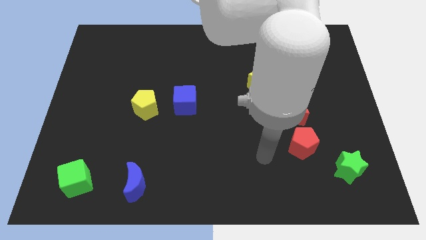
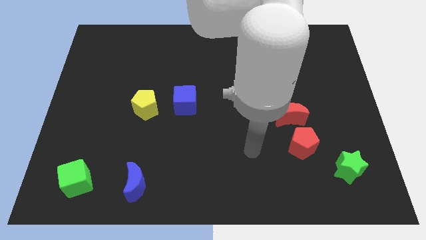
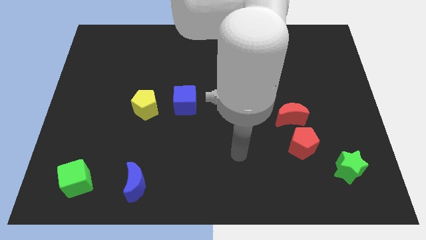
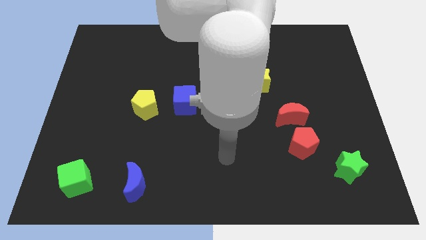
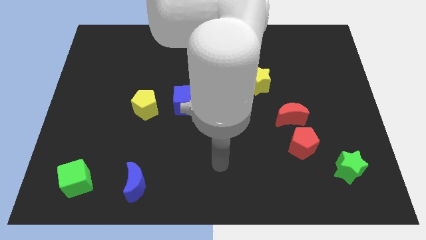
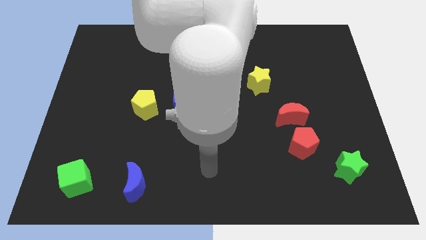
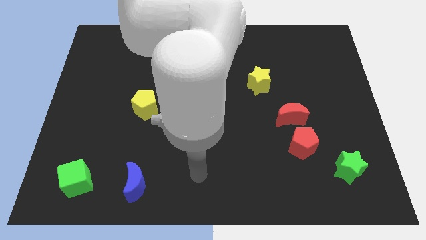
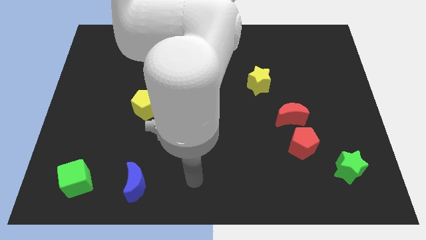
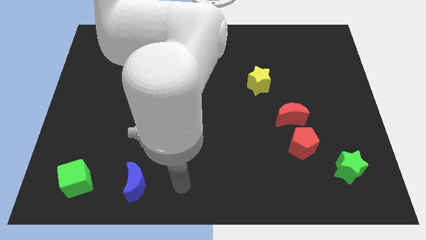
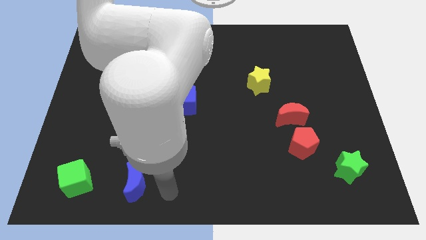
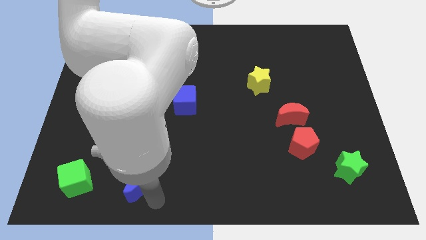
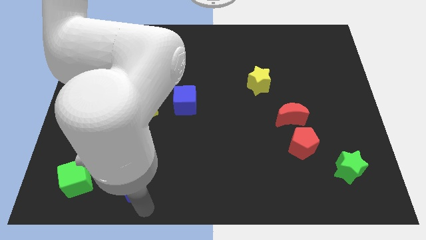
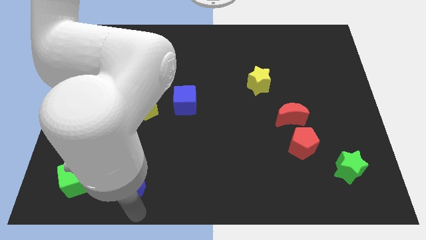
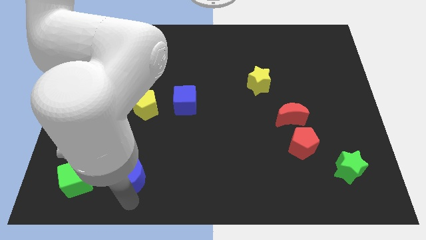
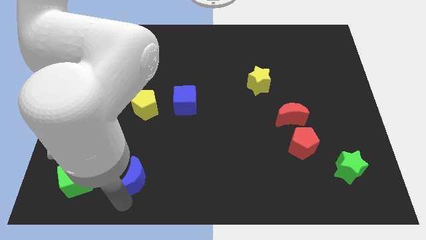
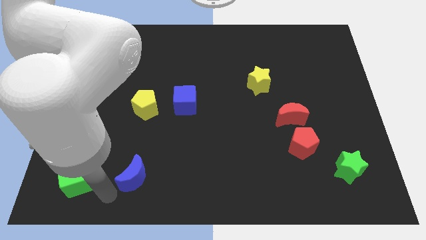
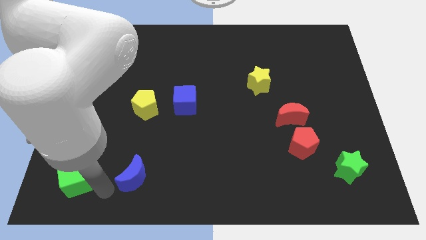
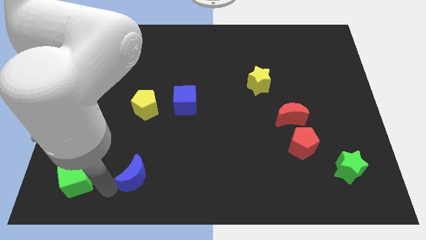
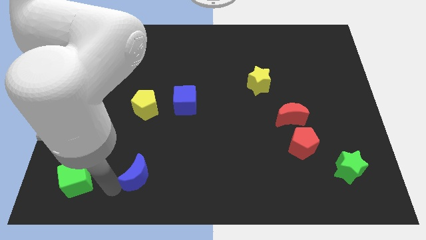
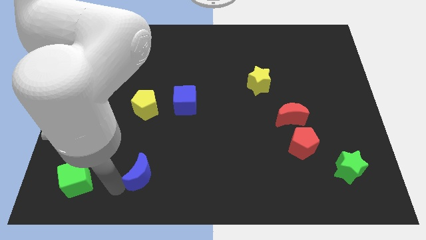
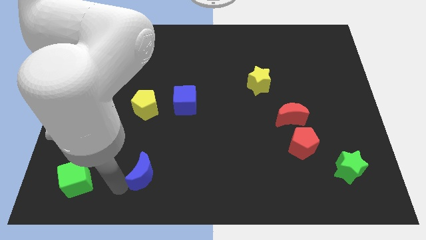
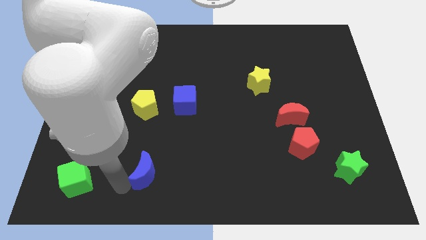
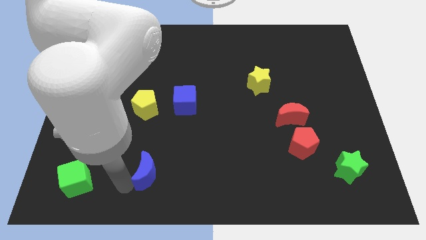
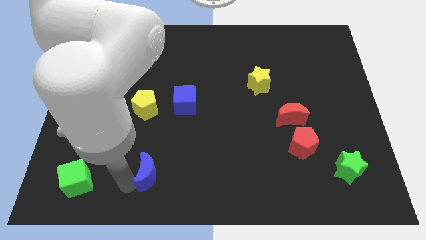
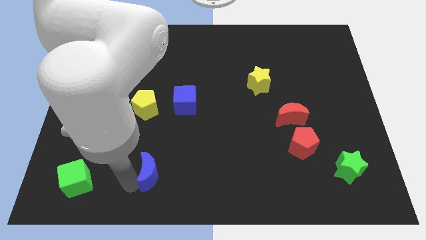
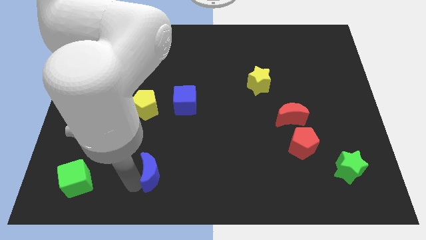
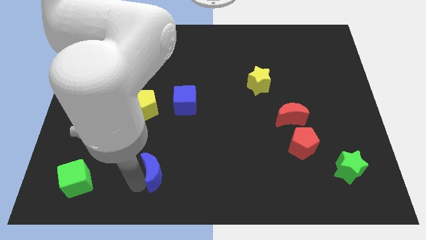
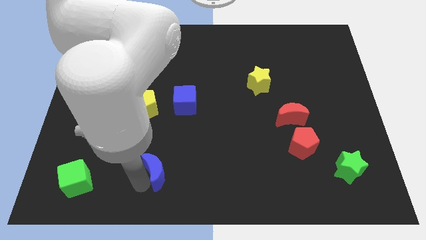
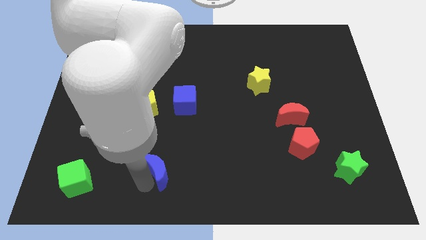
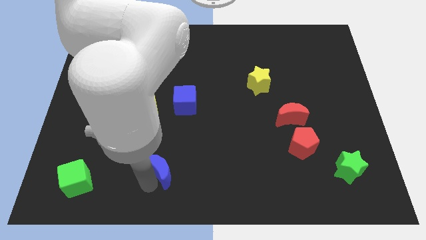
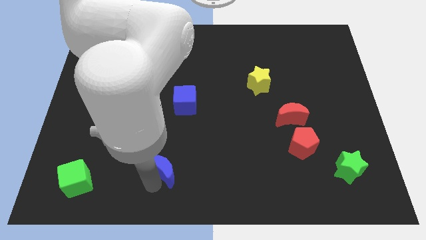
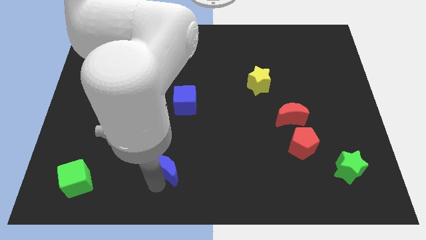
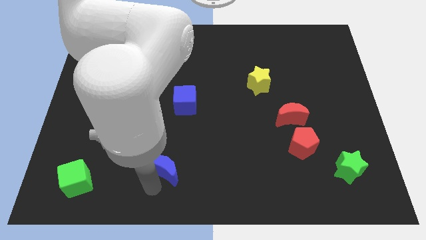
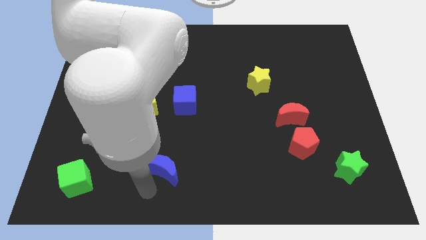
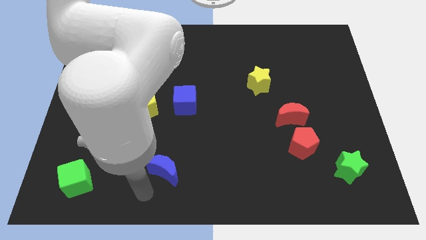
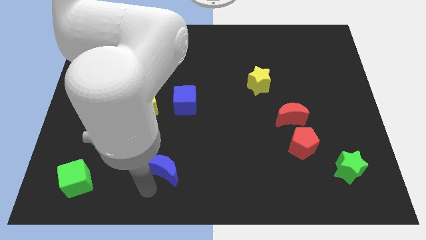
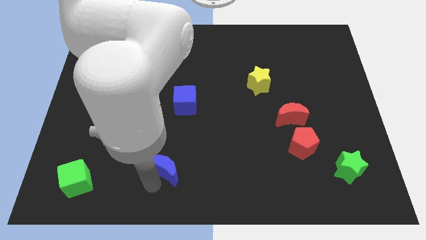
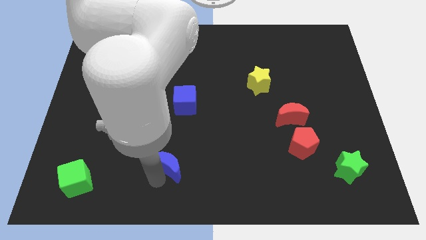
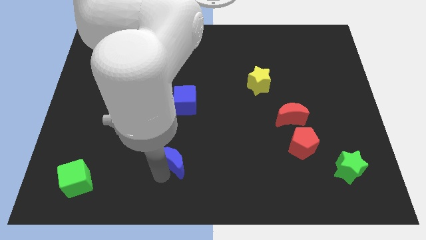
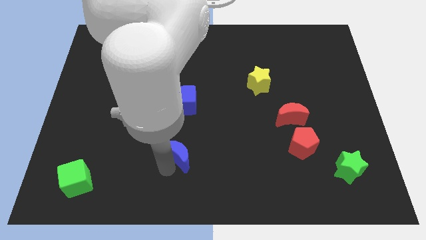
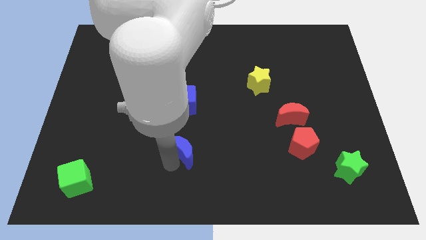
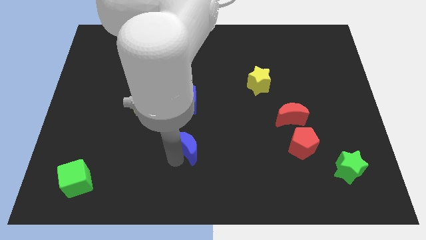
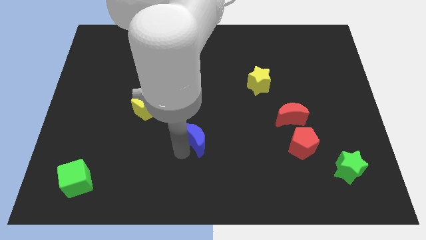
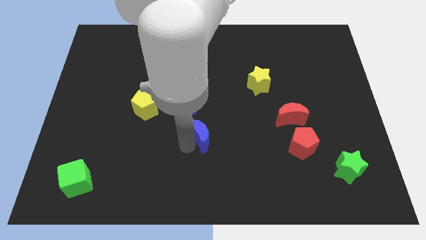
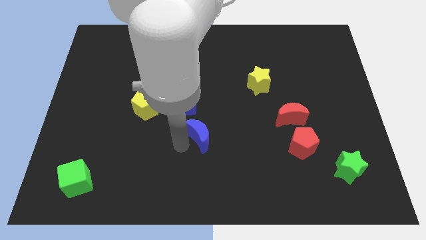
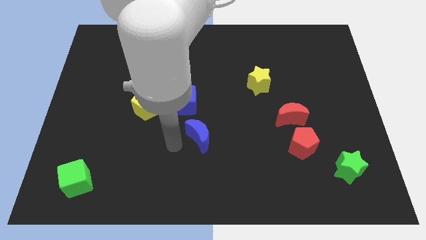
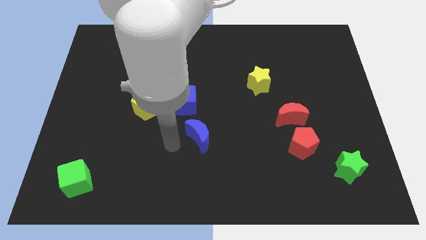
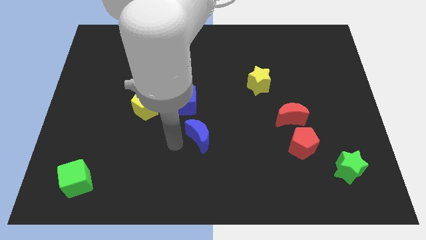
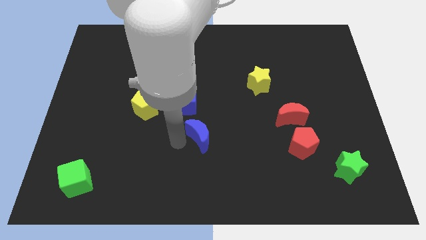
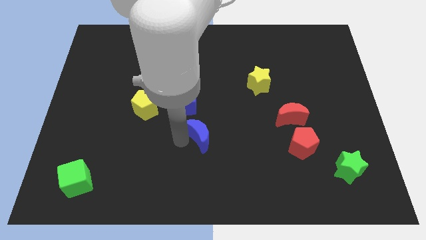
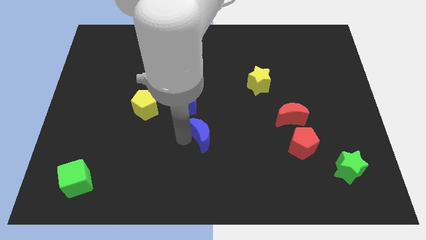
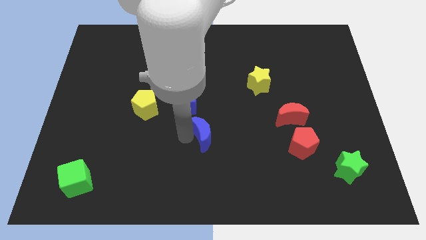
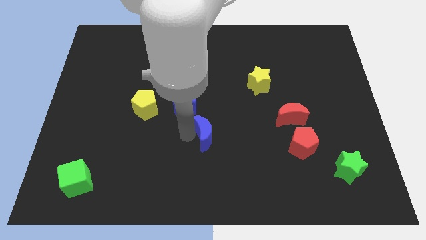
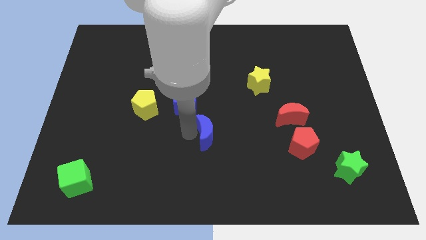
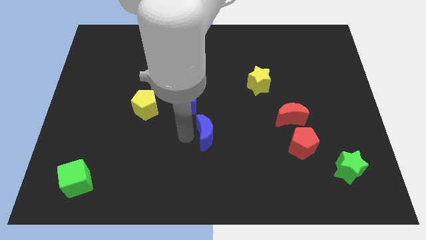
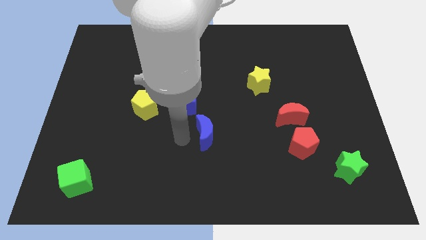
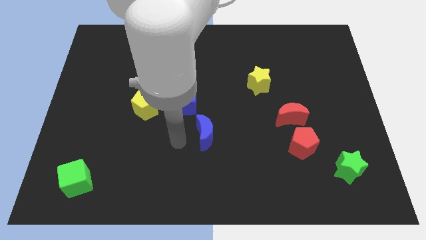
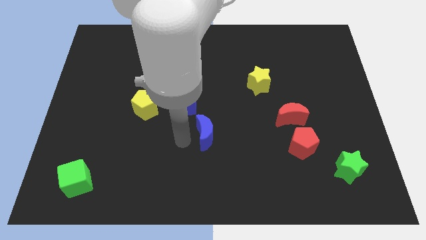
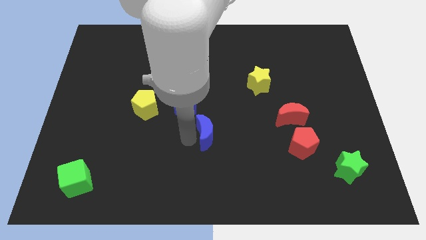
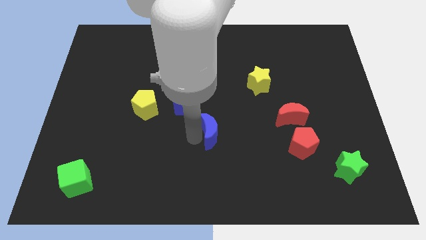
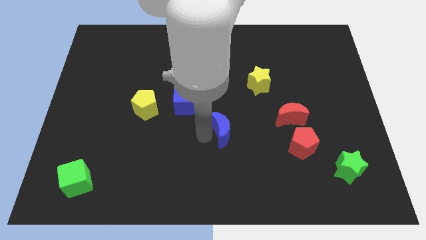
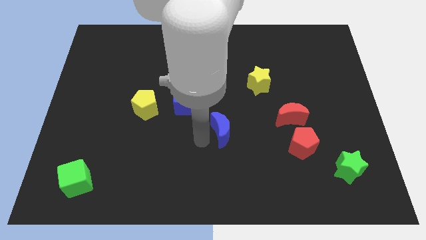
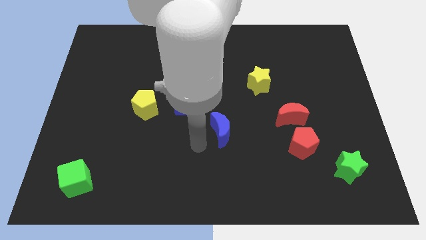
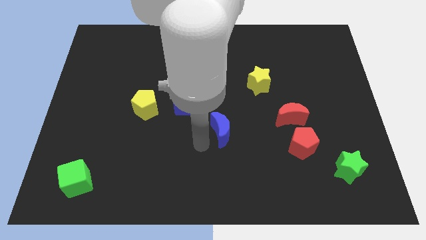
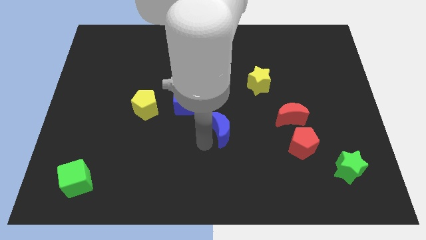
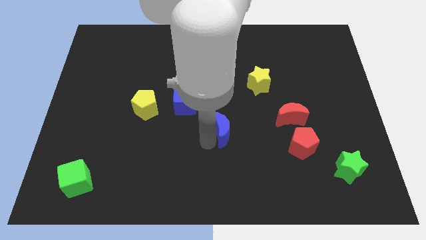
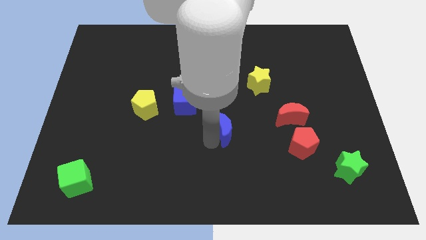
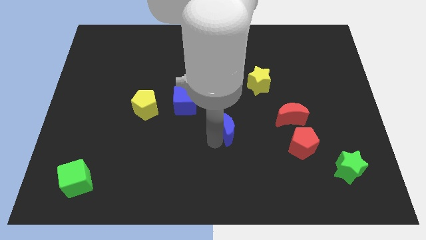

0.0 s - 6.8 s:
move the blue moon to the left side of the red moon

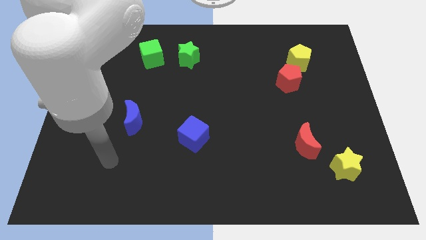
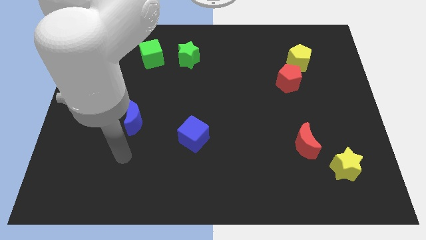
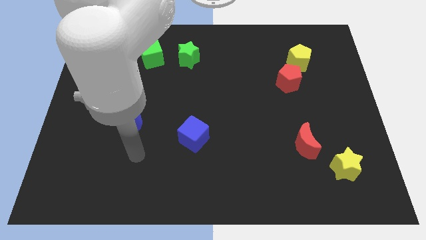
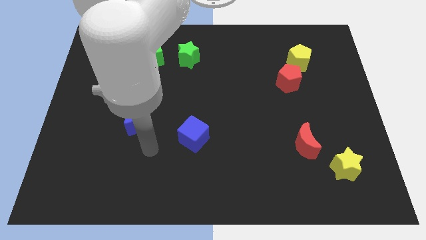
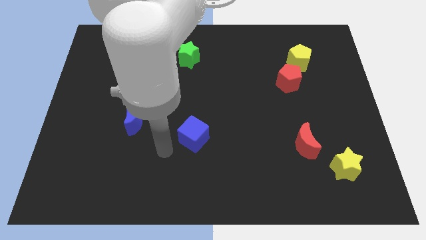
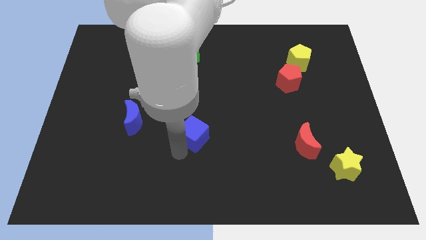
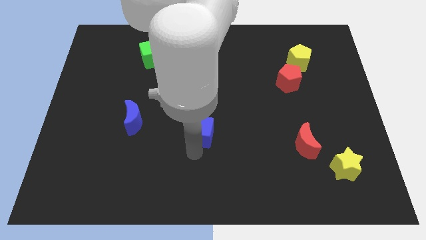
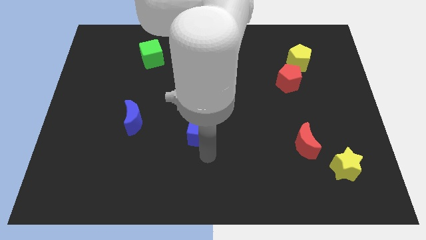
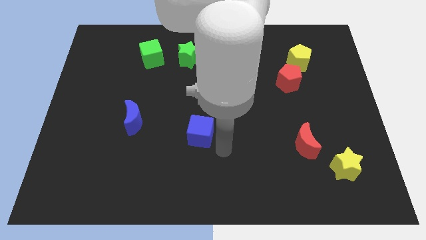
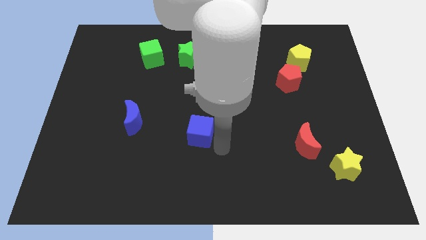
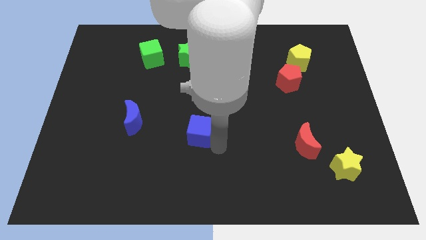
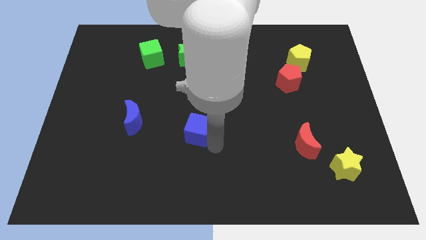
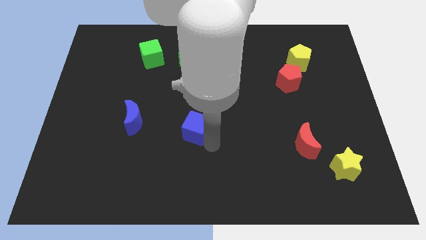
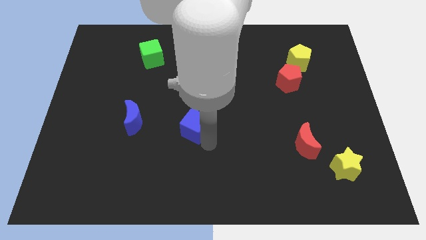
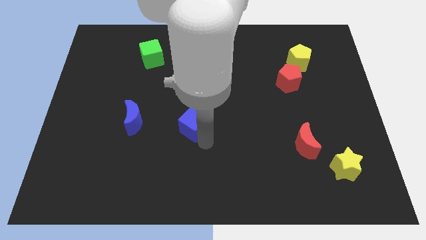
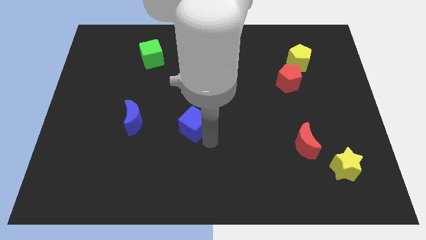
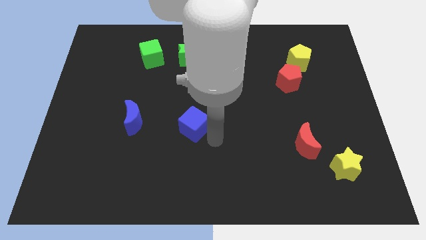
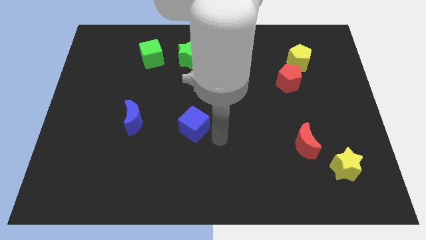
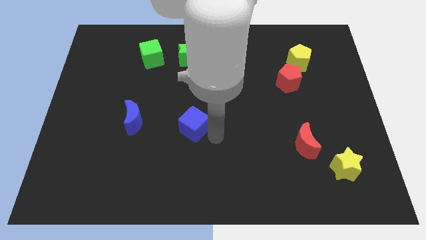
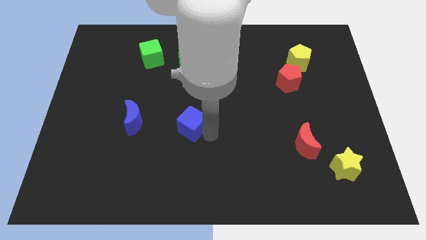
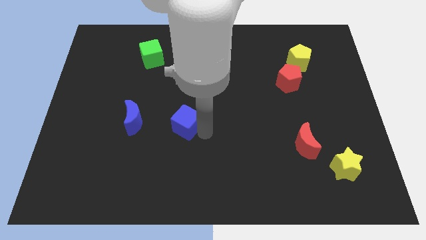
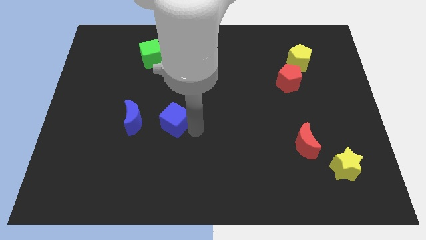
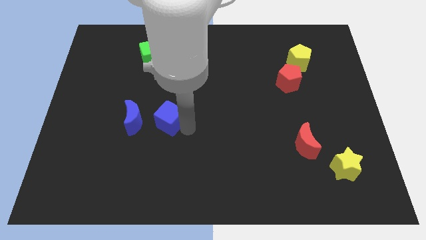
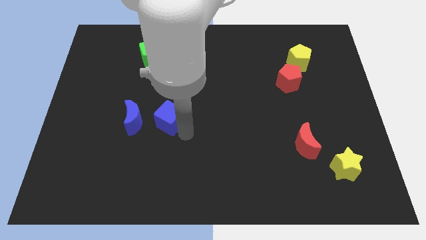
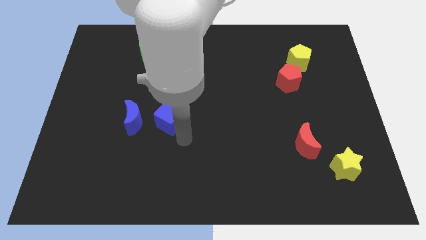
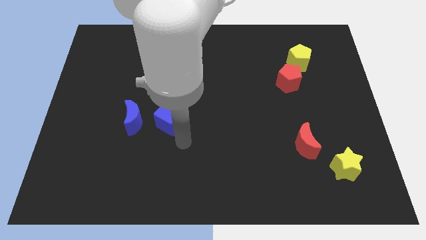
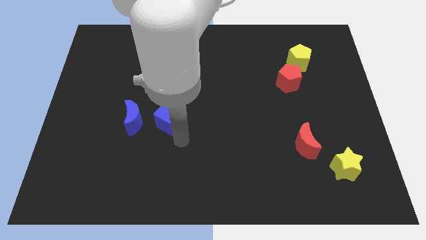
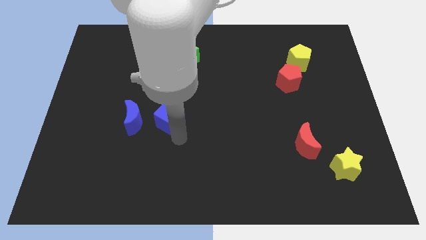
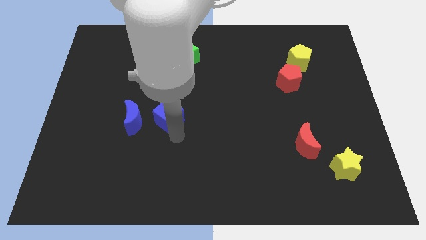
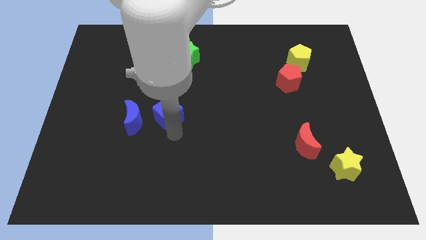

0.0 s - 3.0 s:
put the blue cube diagonally up and to the right of the blue moon
